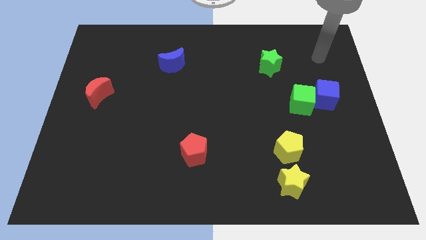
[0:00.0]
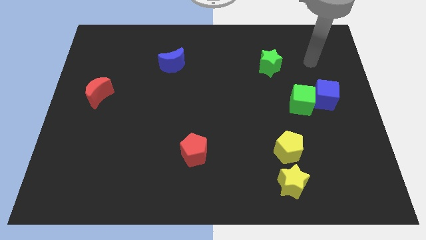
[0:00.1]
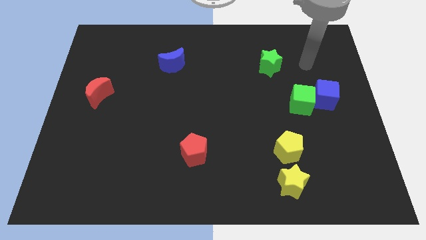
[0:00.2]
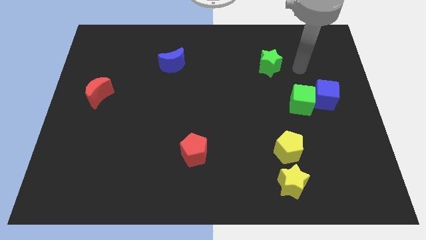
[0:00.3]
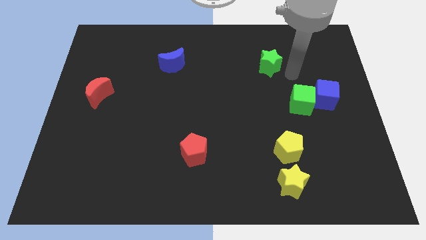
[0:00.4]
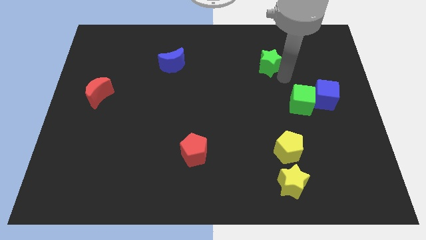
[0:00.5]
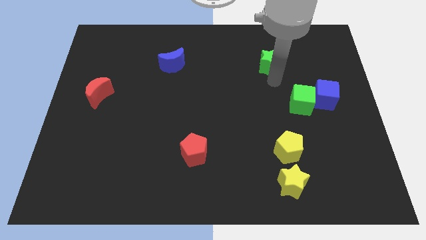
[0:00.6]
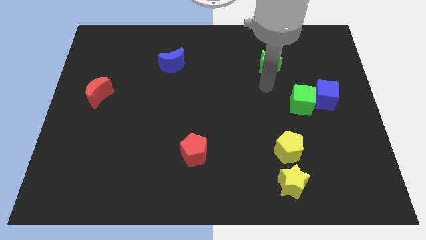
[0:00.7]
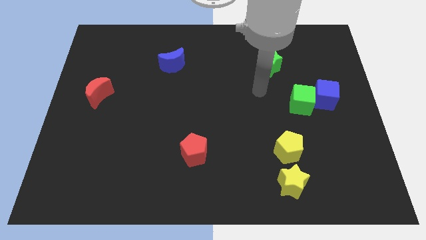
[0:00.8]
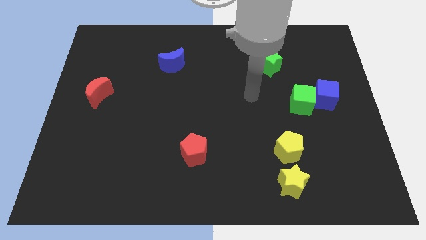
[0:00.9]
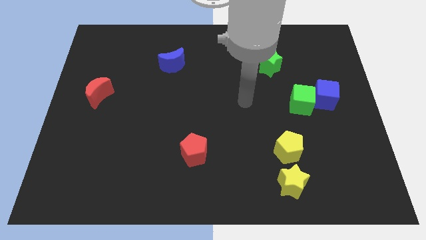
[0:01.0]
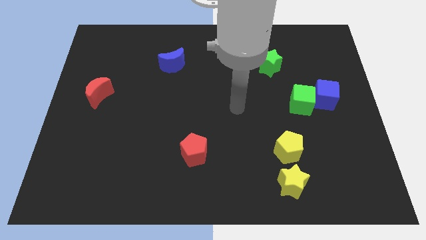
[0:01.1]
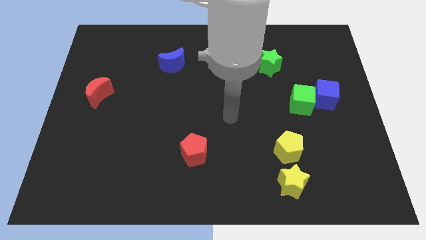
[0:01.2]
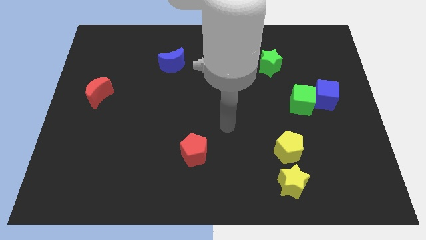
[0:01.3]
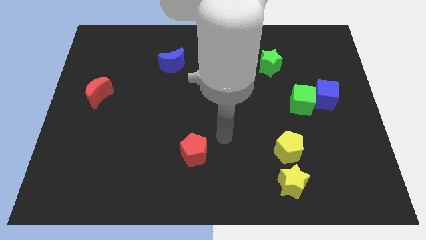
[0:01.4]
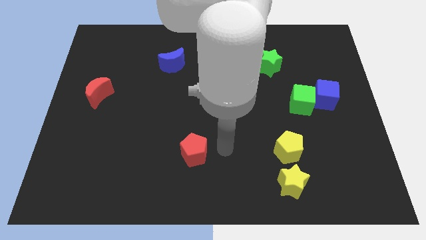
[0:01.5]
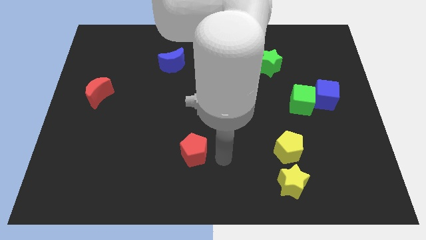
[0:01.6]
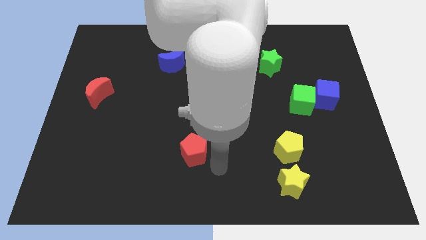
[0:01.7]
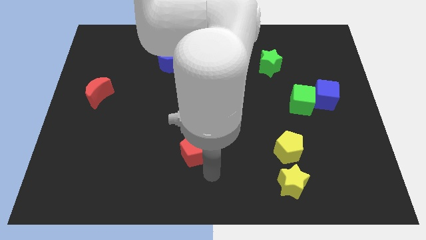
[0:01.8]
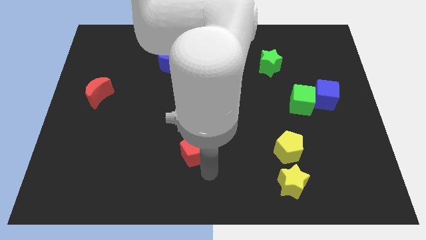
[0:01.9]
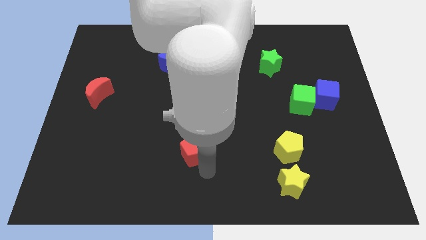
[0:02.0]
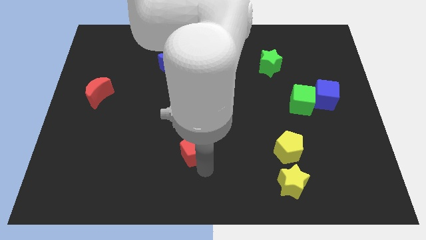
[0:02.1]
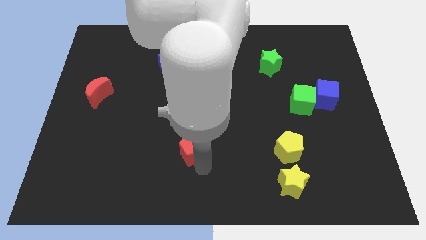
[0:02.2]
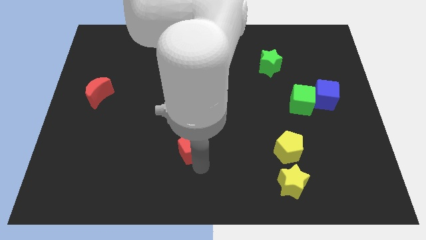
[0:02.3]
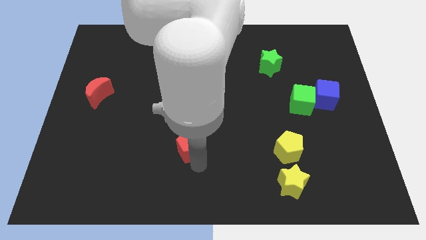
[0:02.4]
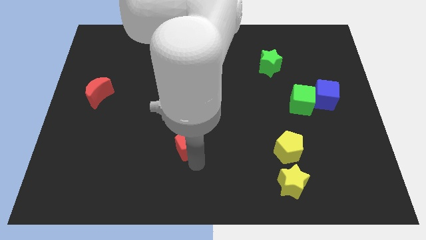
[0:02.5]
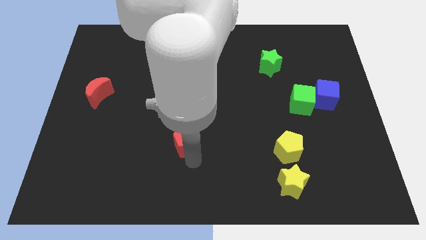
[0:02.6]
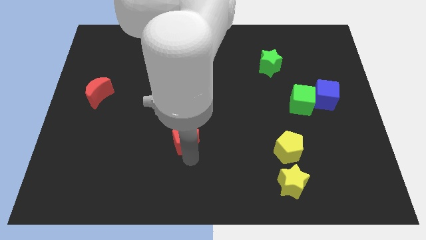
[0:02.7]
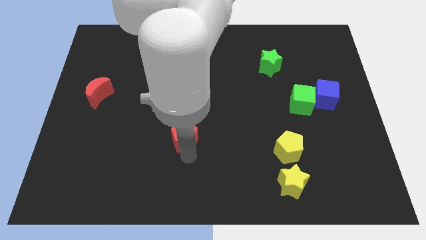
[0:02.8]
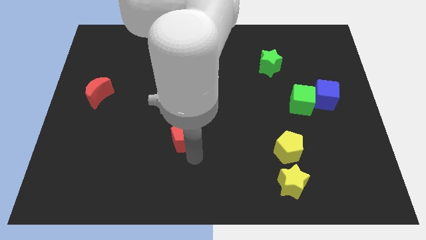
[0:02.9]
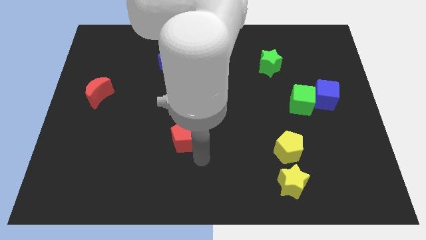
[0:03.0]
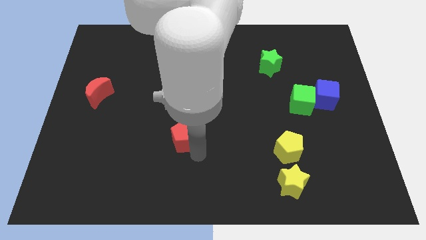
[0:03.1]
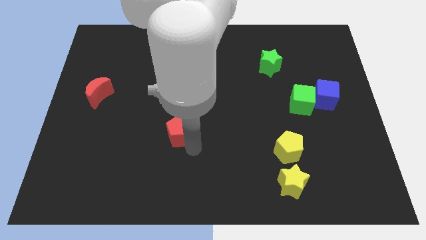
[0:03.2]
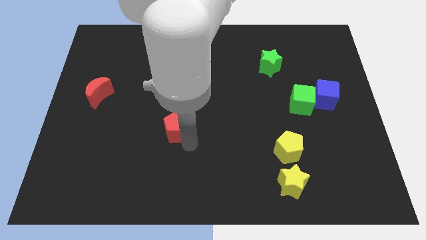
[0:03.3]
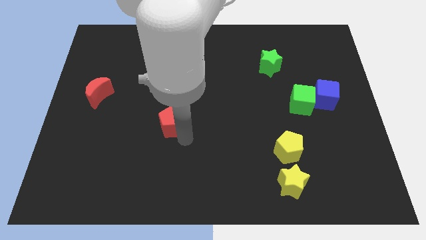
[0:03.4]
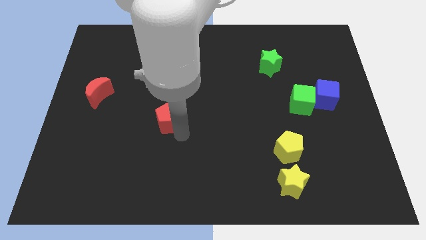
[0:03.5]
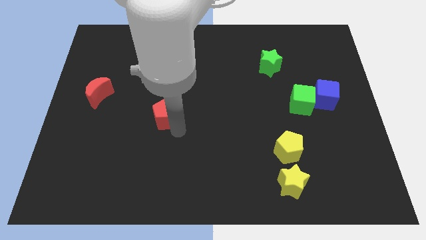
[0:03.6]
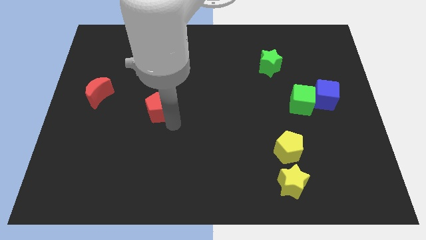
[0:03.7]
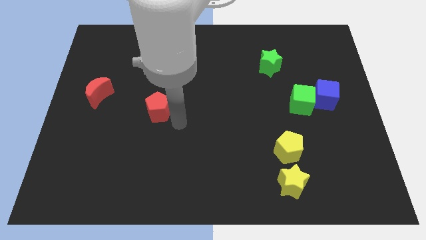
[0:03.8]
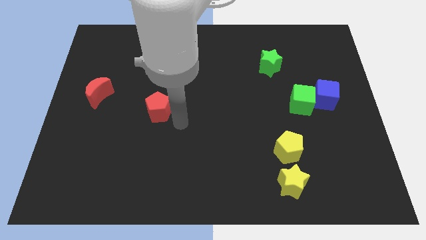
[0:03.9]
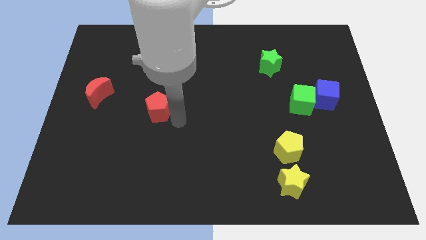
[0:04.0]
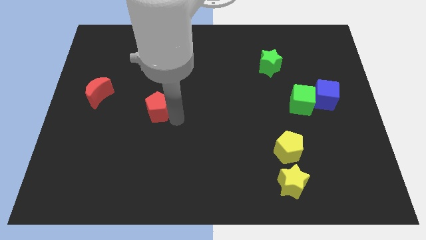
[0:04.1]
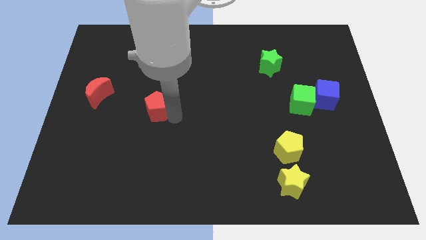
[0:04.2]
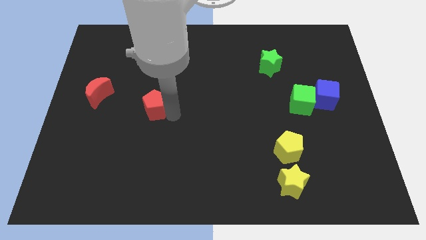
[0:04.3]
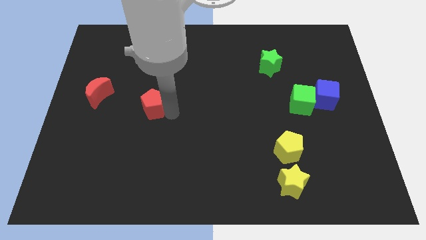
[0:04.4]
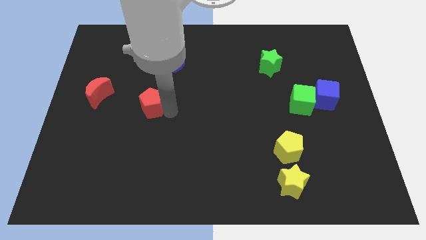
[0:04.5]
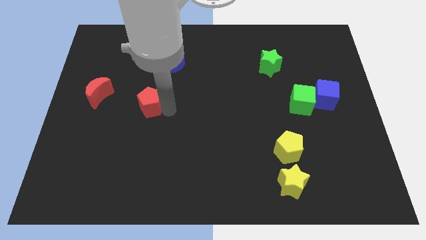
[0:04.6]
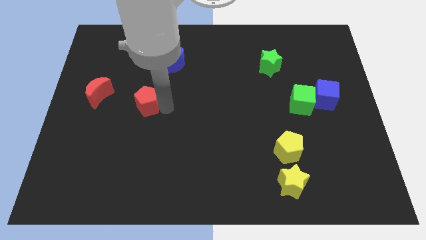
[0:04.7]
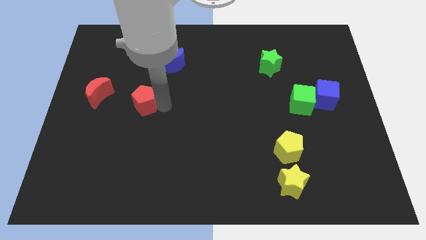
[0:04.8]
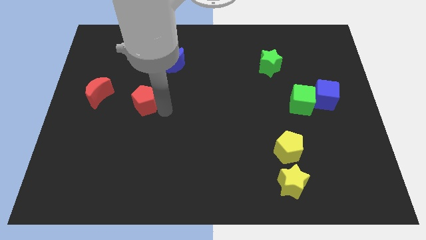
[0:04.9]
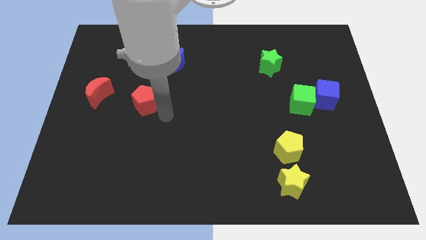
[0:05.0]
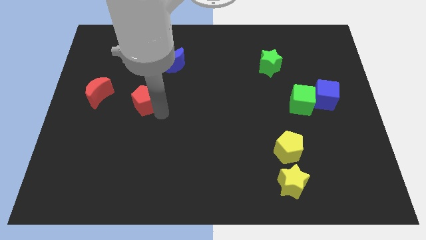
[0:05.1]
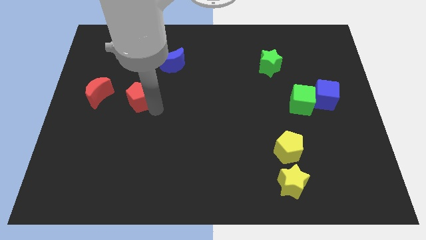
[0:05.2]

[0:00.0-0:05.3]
push the red pentagon upwards and to the left diagonally

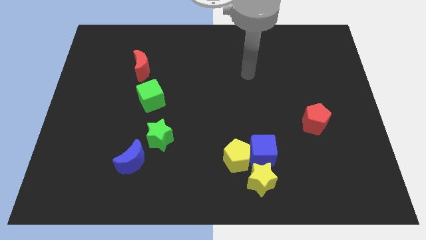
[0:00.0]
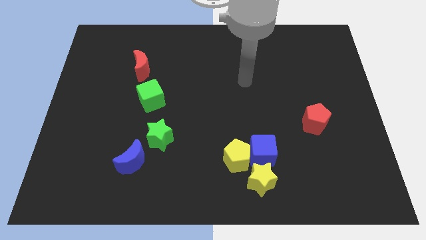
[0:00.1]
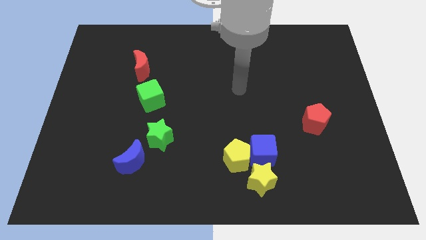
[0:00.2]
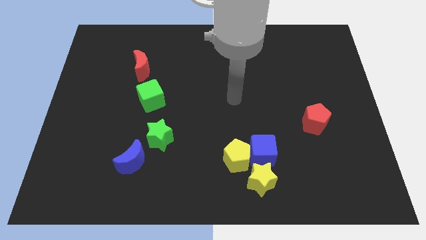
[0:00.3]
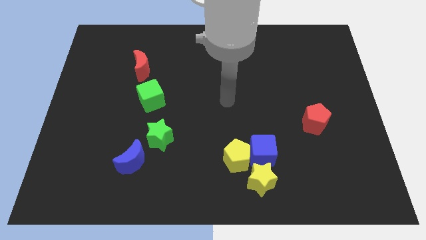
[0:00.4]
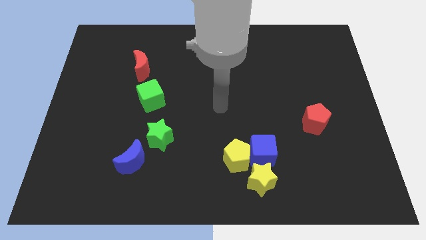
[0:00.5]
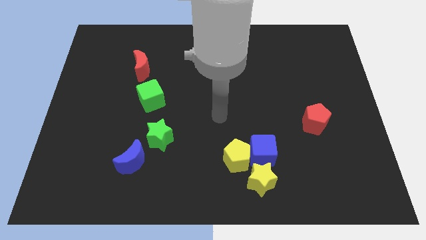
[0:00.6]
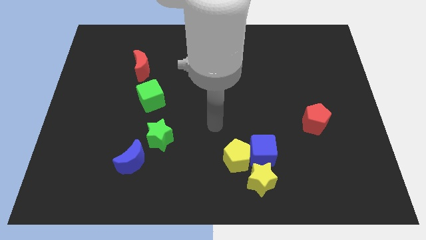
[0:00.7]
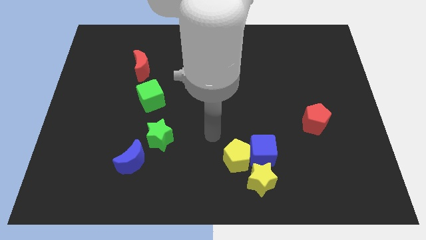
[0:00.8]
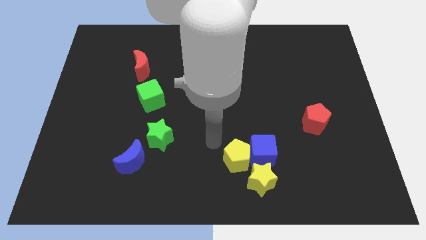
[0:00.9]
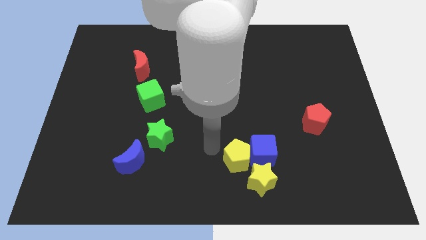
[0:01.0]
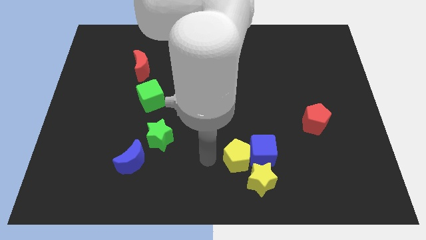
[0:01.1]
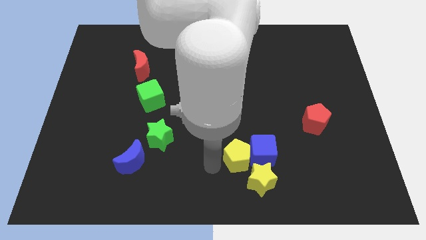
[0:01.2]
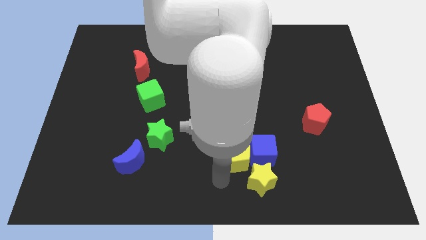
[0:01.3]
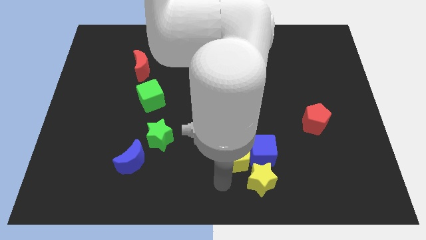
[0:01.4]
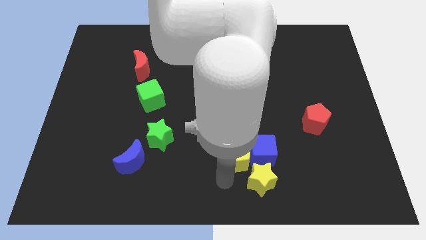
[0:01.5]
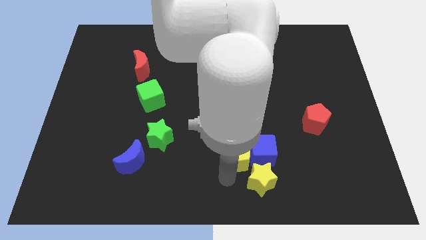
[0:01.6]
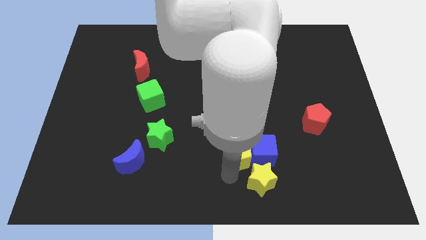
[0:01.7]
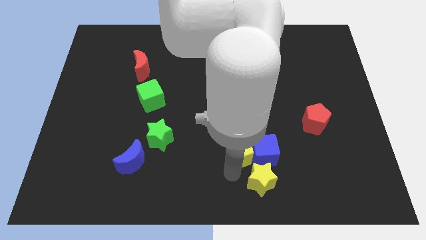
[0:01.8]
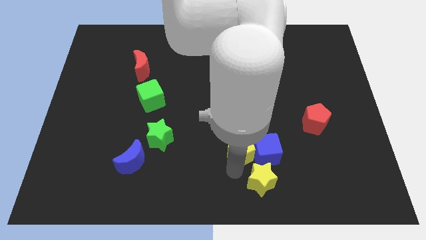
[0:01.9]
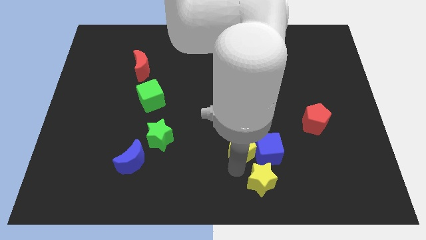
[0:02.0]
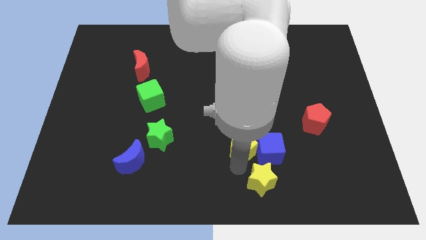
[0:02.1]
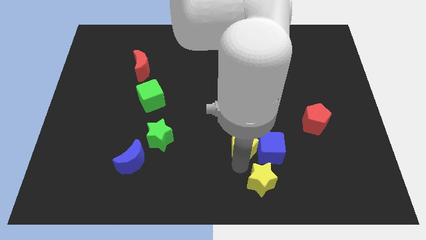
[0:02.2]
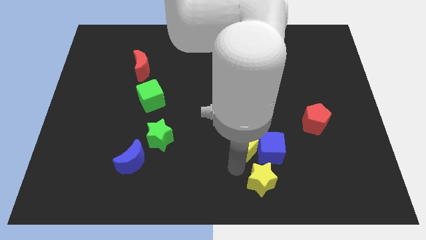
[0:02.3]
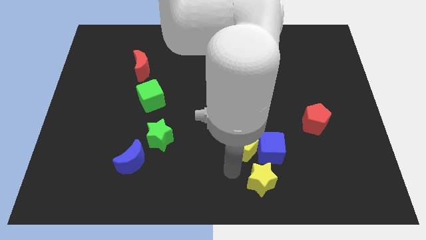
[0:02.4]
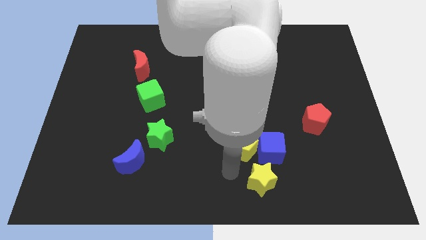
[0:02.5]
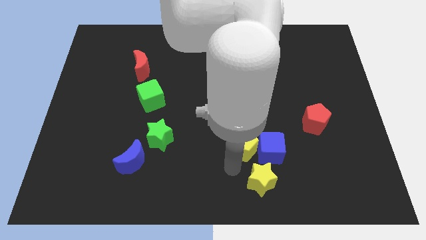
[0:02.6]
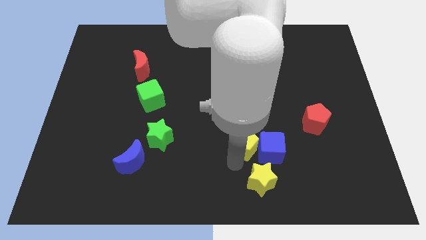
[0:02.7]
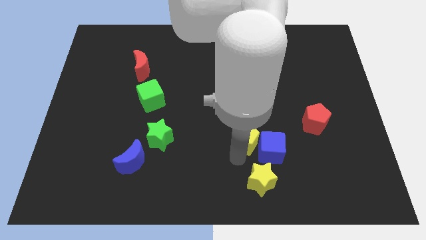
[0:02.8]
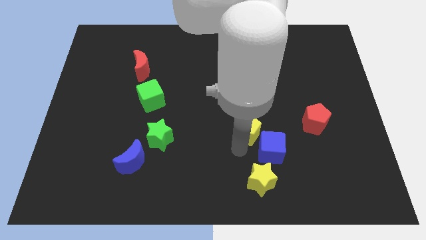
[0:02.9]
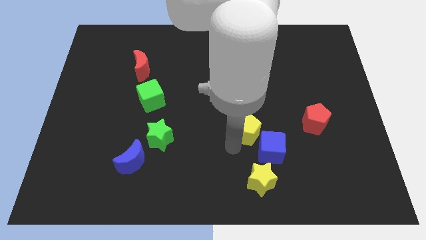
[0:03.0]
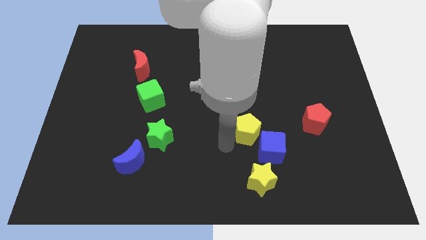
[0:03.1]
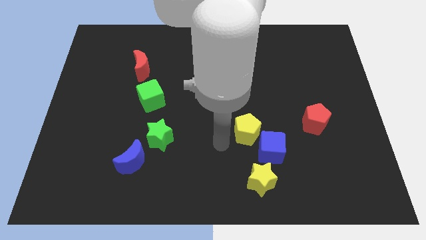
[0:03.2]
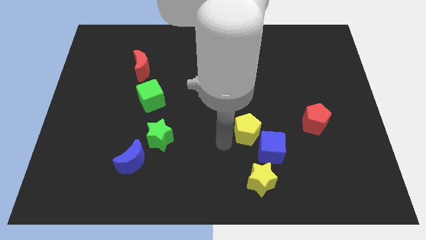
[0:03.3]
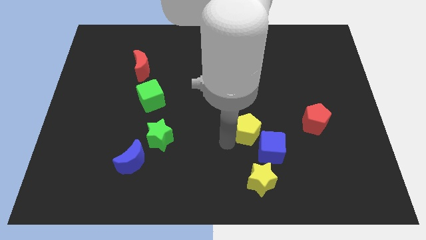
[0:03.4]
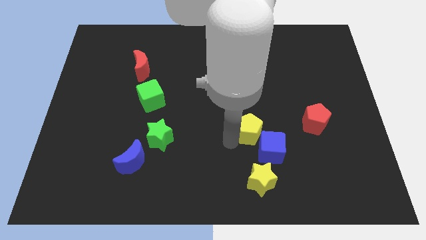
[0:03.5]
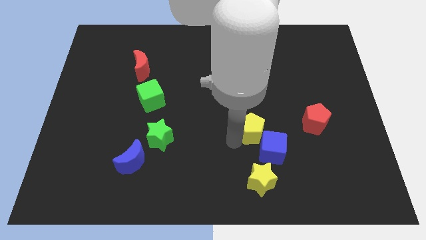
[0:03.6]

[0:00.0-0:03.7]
slightly move the yellow pentagon up and to the right diagonally
